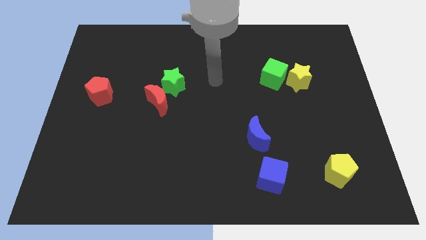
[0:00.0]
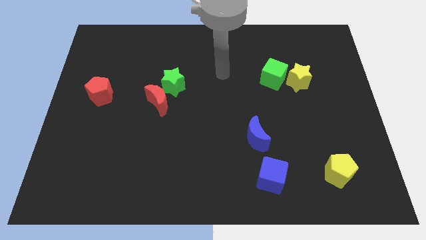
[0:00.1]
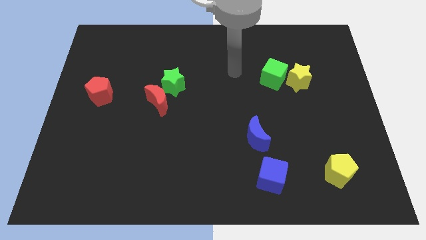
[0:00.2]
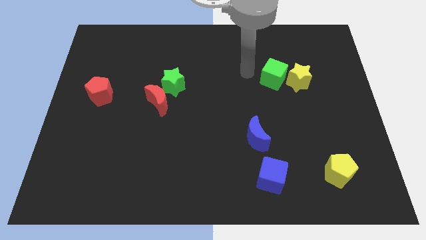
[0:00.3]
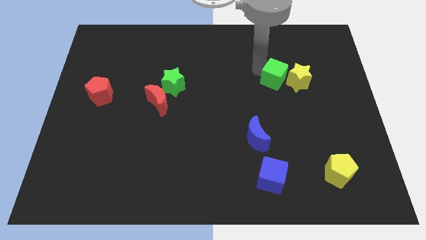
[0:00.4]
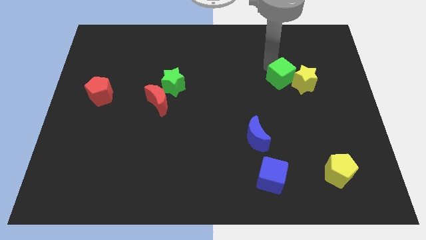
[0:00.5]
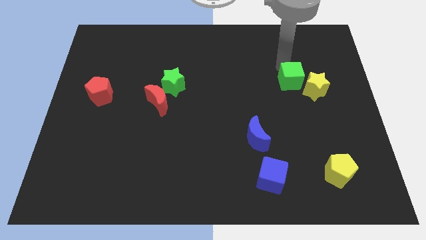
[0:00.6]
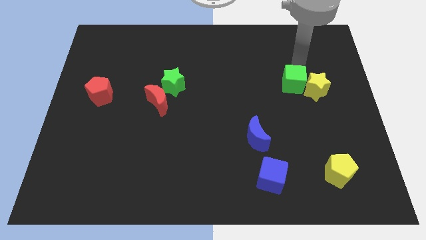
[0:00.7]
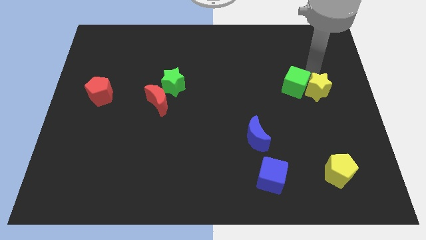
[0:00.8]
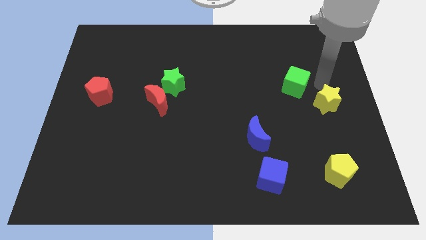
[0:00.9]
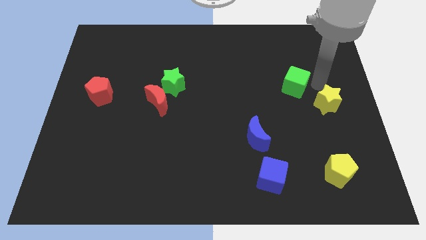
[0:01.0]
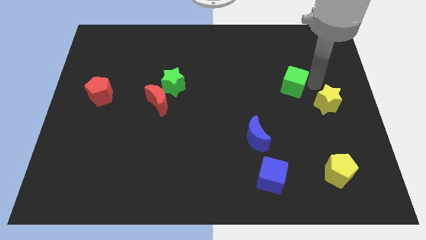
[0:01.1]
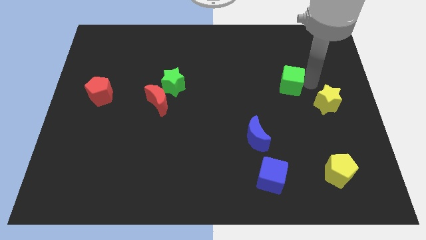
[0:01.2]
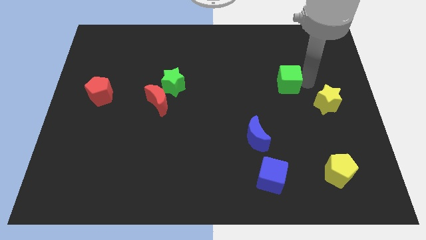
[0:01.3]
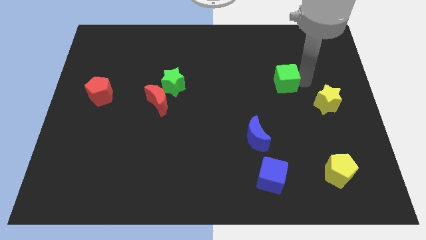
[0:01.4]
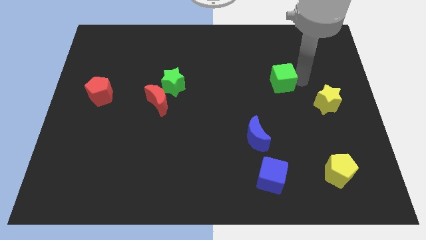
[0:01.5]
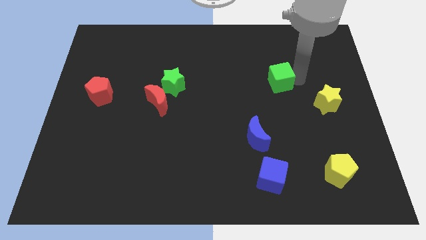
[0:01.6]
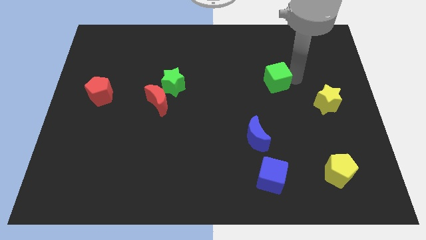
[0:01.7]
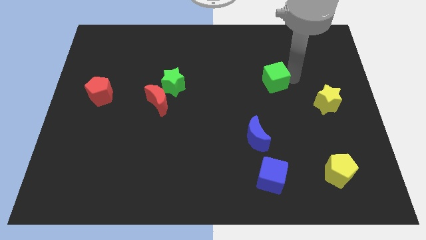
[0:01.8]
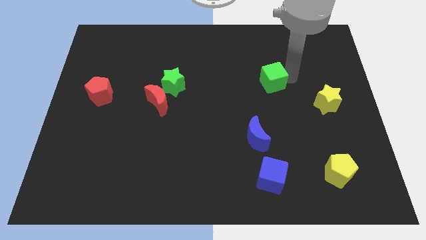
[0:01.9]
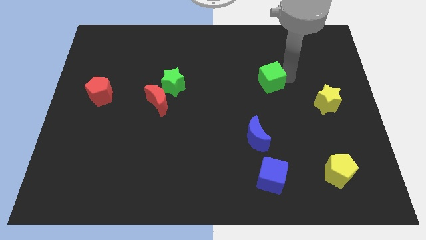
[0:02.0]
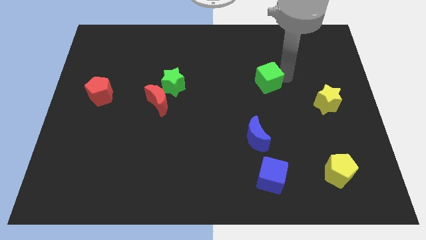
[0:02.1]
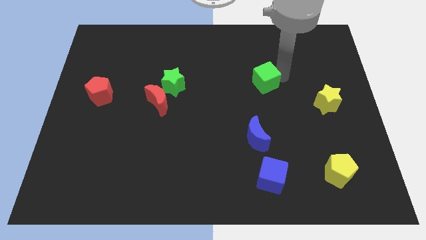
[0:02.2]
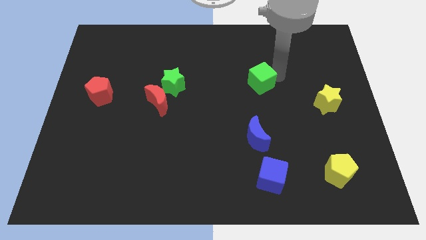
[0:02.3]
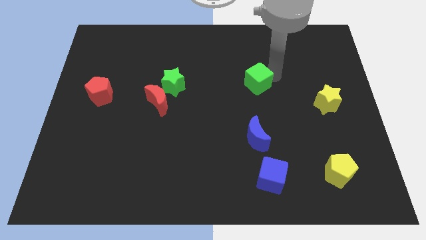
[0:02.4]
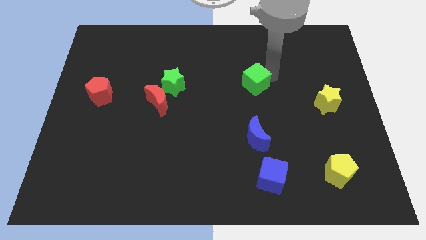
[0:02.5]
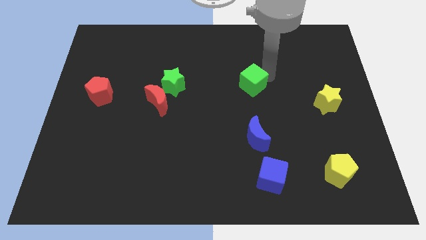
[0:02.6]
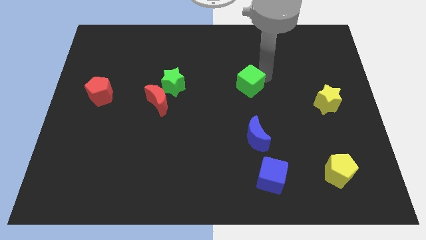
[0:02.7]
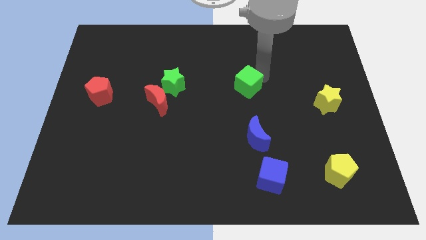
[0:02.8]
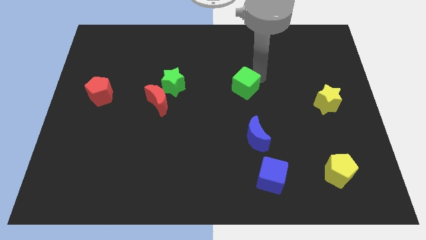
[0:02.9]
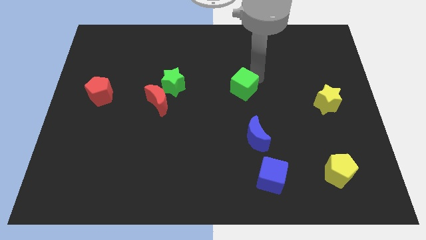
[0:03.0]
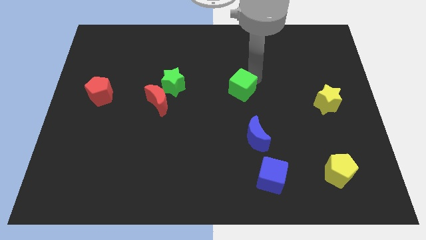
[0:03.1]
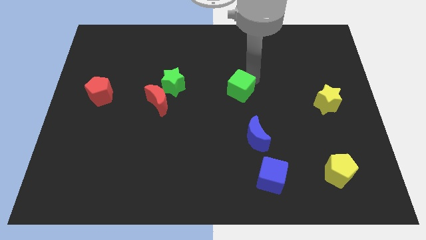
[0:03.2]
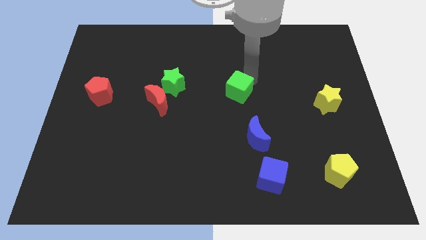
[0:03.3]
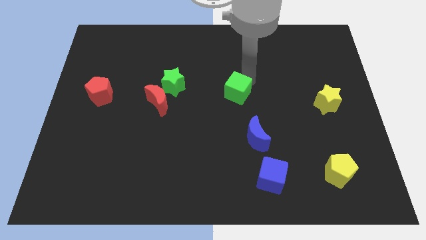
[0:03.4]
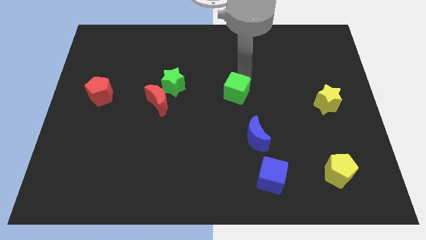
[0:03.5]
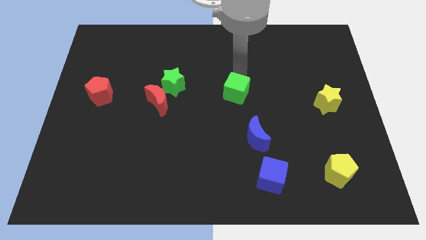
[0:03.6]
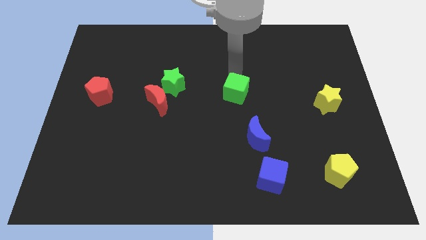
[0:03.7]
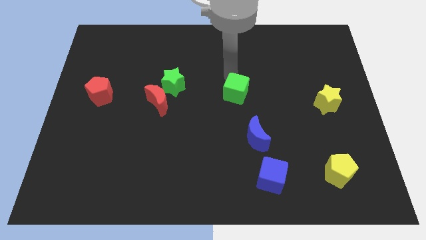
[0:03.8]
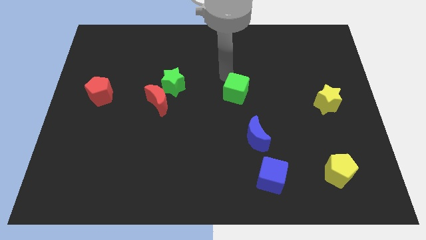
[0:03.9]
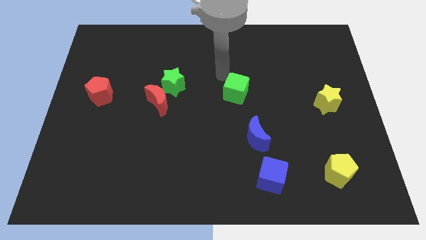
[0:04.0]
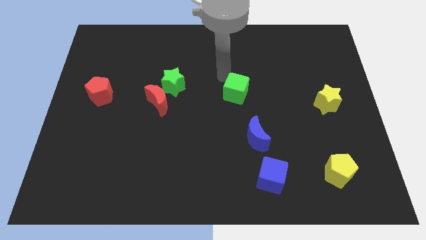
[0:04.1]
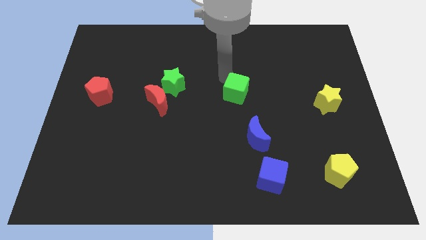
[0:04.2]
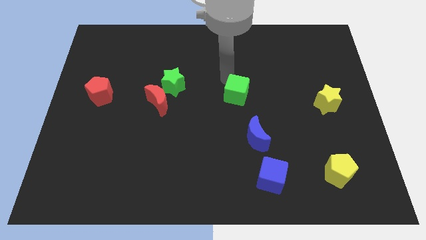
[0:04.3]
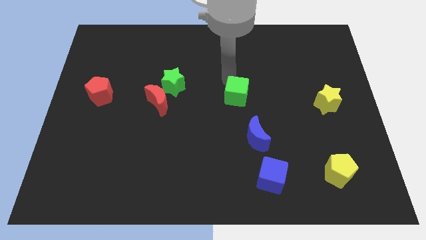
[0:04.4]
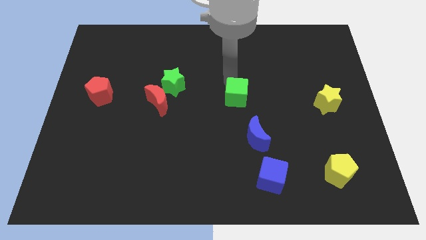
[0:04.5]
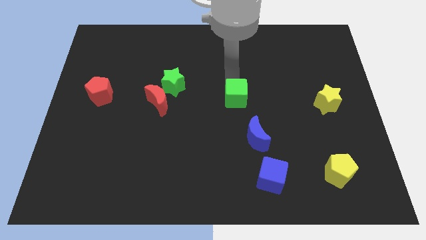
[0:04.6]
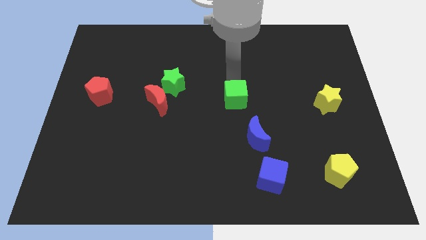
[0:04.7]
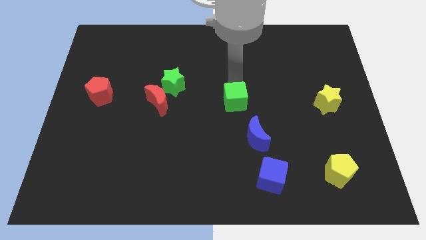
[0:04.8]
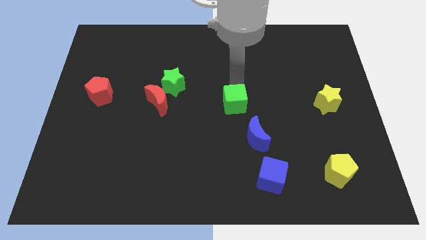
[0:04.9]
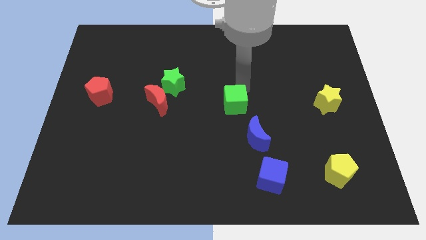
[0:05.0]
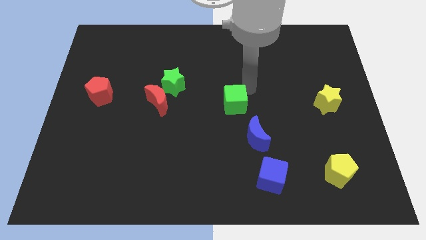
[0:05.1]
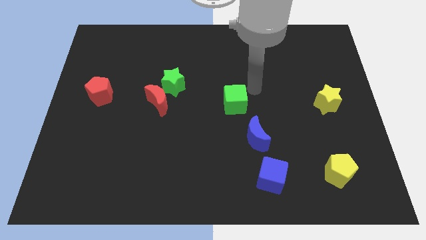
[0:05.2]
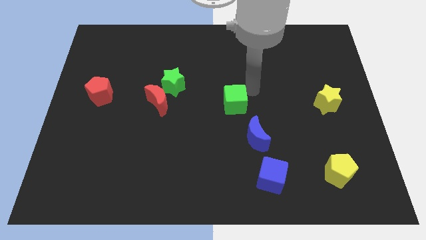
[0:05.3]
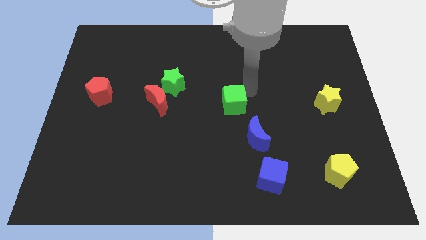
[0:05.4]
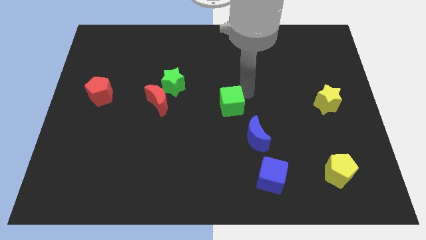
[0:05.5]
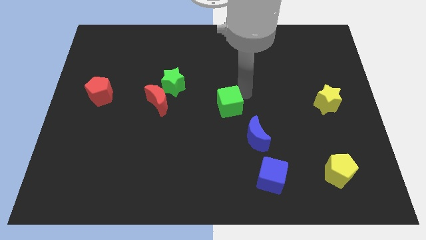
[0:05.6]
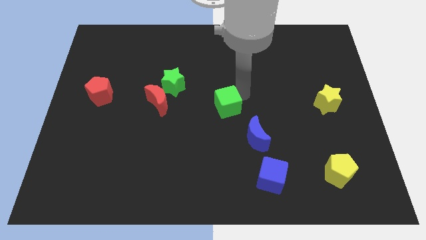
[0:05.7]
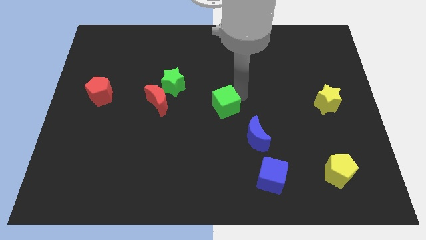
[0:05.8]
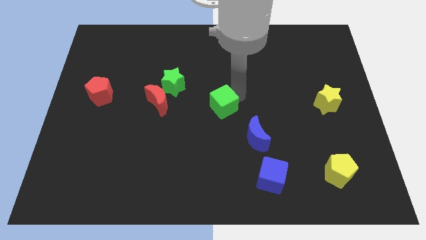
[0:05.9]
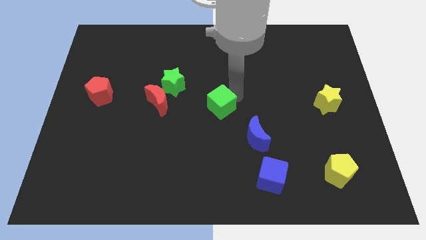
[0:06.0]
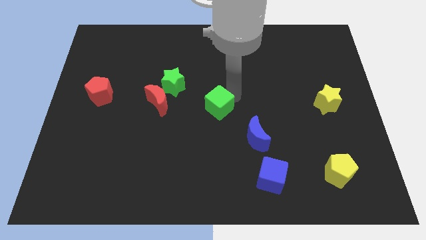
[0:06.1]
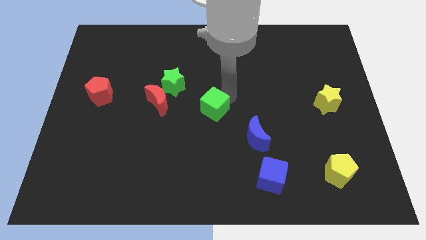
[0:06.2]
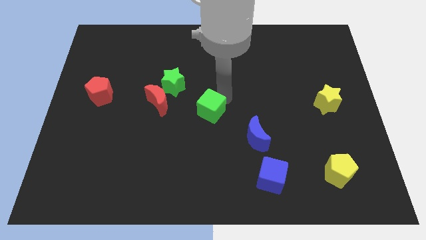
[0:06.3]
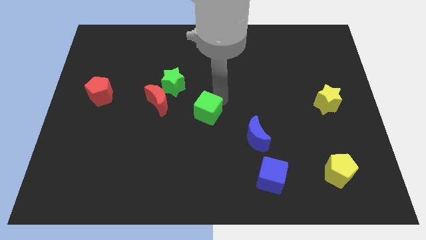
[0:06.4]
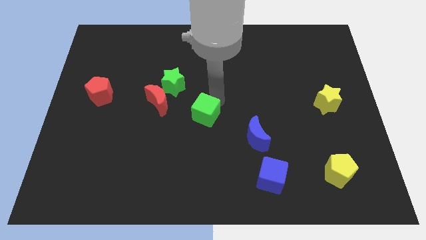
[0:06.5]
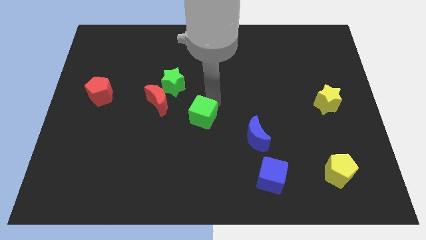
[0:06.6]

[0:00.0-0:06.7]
push the green cube down and left diagonally

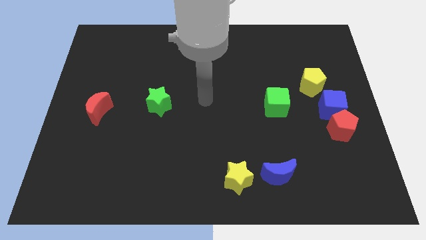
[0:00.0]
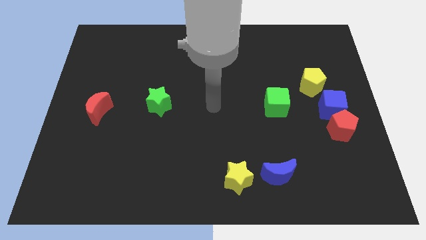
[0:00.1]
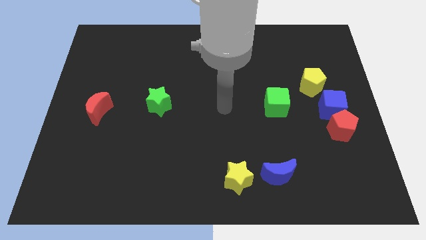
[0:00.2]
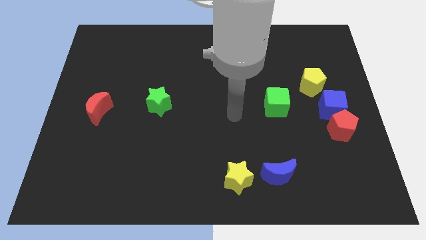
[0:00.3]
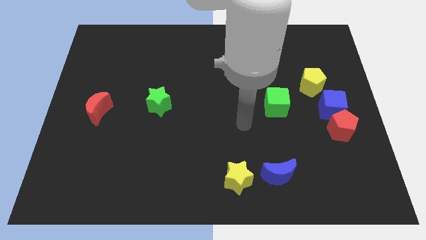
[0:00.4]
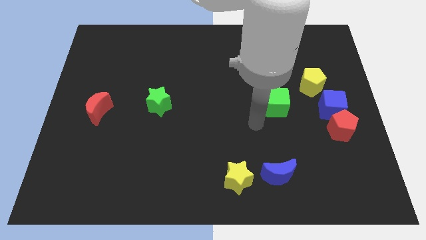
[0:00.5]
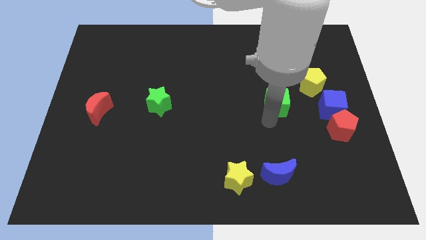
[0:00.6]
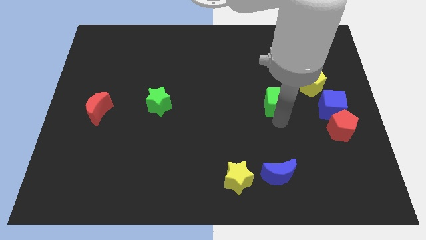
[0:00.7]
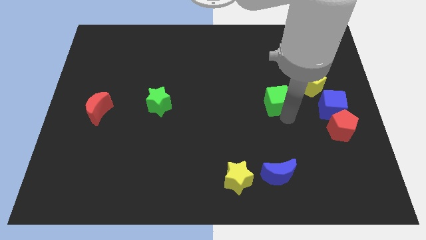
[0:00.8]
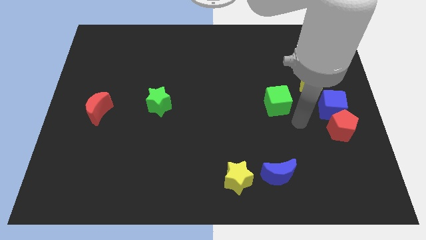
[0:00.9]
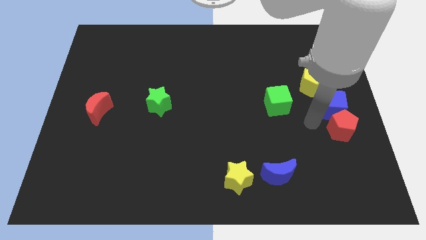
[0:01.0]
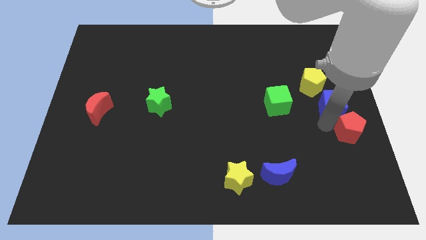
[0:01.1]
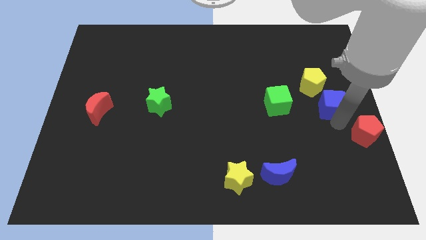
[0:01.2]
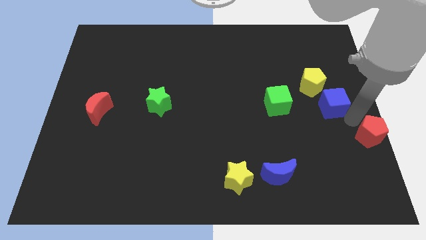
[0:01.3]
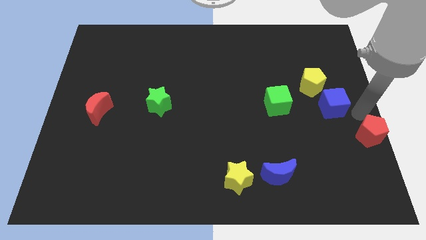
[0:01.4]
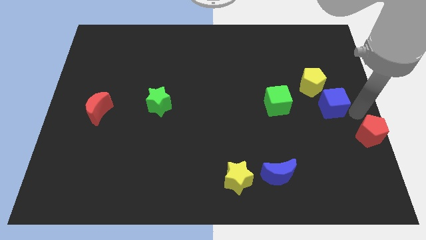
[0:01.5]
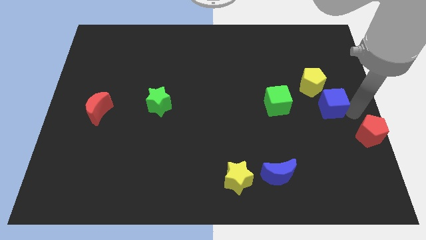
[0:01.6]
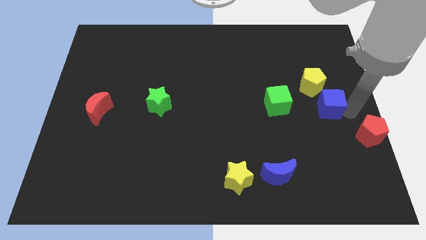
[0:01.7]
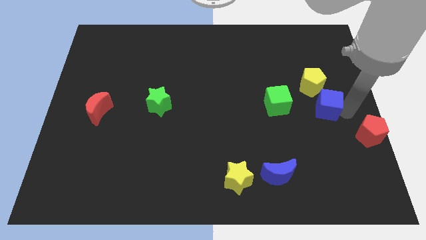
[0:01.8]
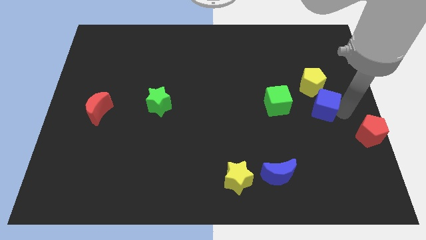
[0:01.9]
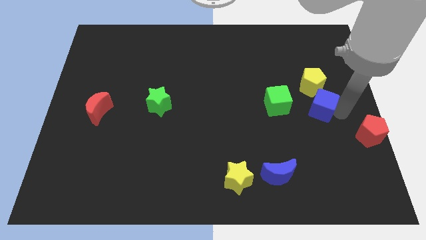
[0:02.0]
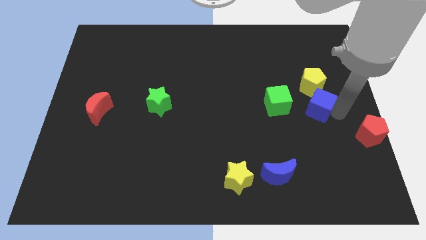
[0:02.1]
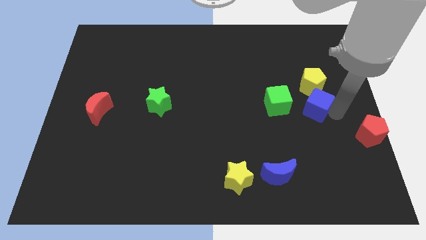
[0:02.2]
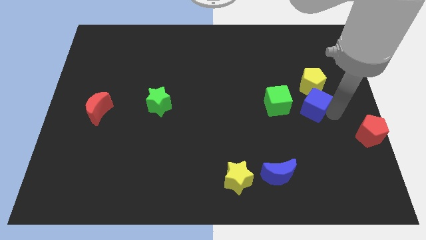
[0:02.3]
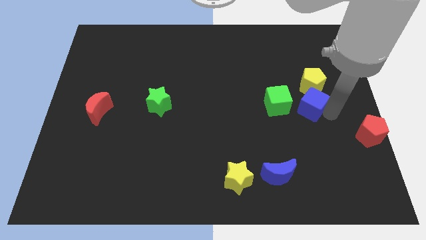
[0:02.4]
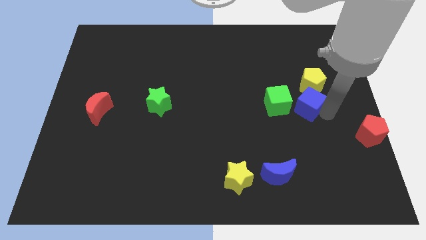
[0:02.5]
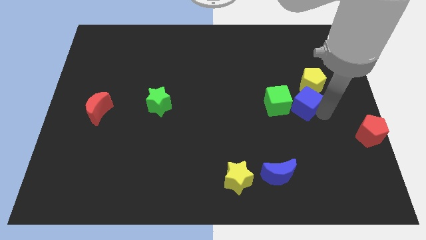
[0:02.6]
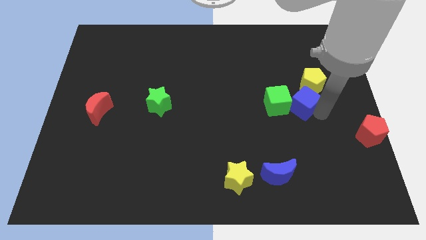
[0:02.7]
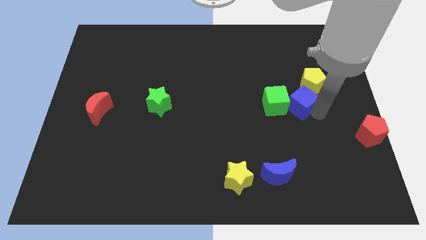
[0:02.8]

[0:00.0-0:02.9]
move the blue cube somewhat left
